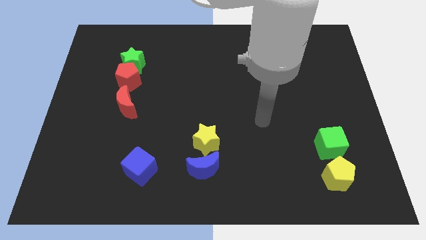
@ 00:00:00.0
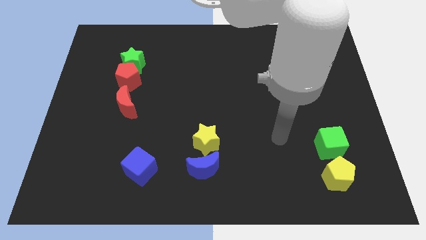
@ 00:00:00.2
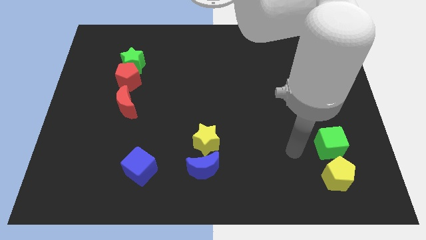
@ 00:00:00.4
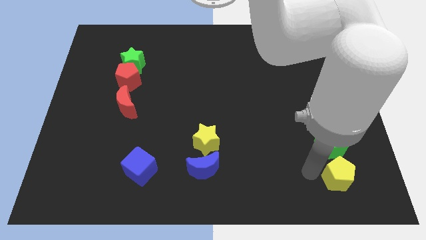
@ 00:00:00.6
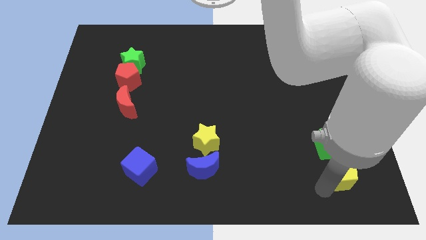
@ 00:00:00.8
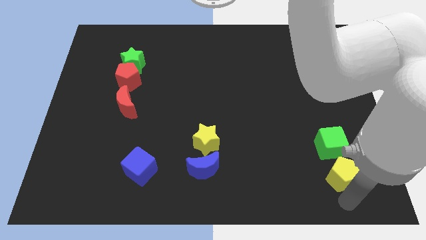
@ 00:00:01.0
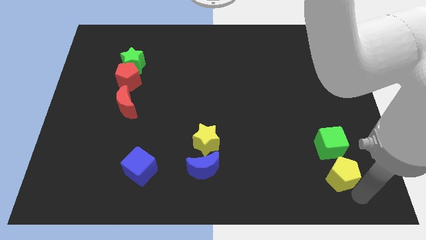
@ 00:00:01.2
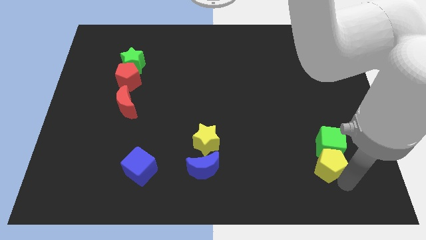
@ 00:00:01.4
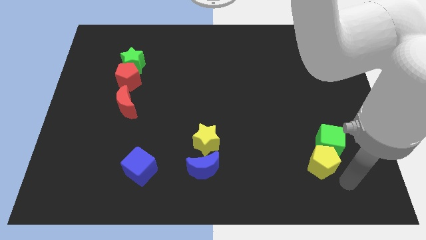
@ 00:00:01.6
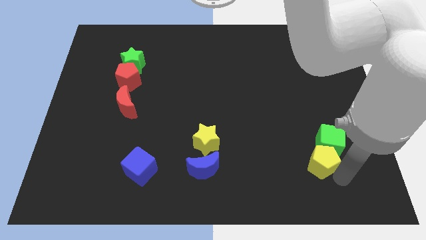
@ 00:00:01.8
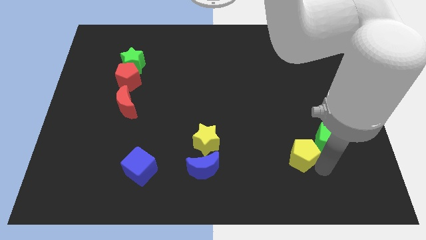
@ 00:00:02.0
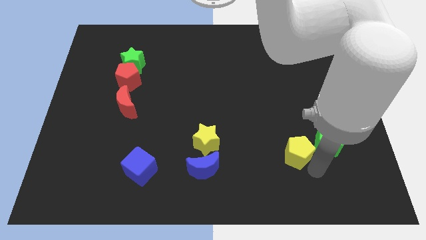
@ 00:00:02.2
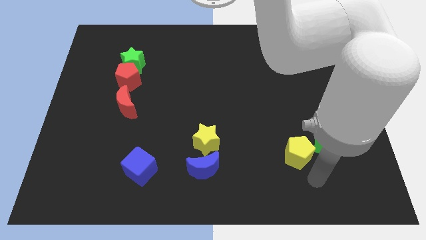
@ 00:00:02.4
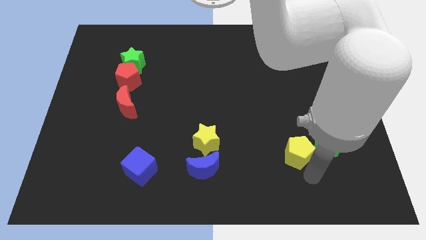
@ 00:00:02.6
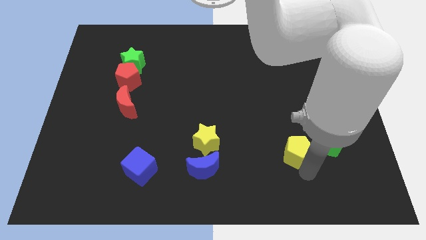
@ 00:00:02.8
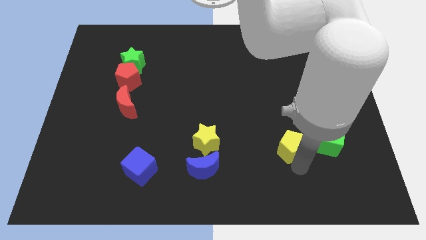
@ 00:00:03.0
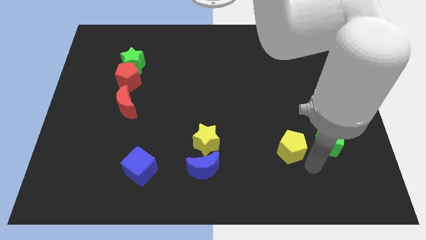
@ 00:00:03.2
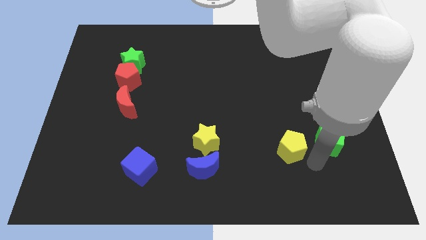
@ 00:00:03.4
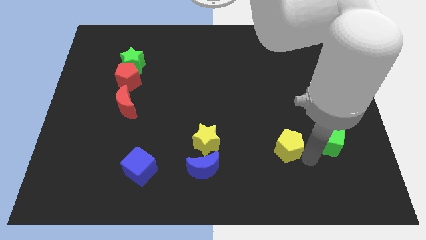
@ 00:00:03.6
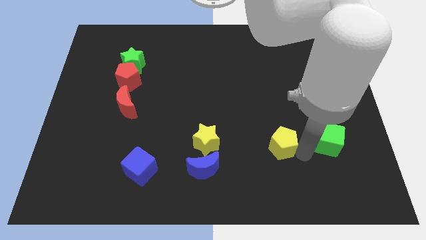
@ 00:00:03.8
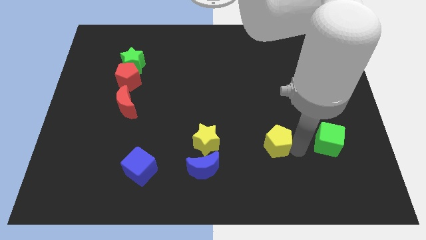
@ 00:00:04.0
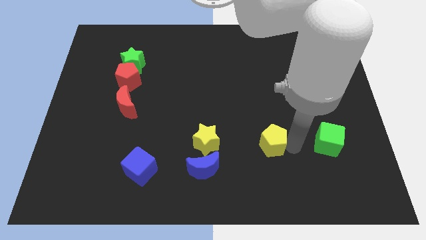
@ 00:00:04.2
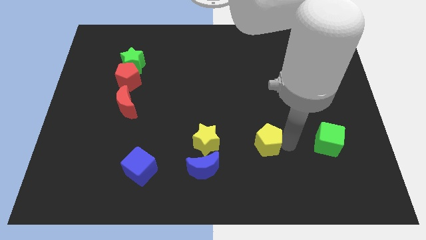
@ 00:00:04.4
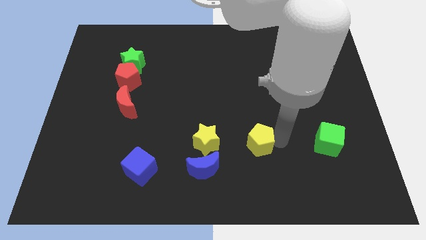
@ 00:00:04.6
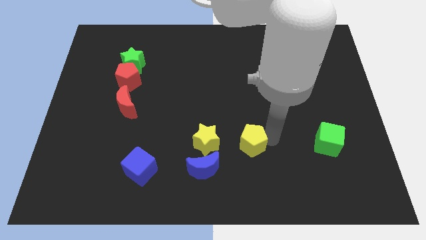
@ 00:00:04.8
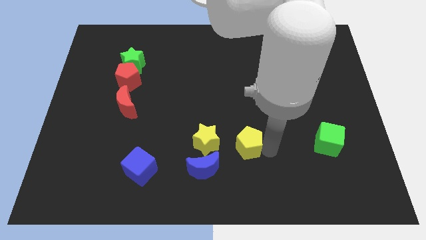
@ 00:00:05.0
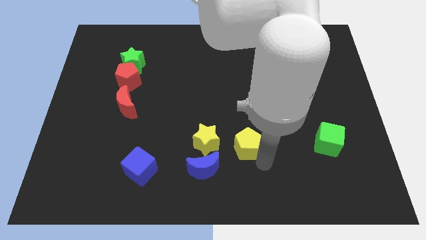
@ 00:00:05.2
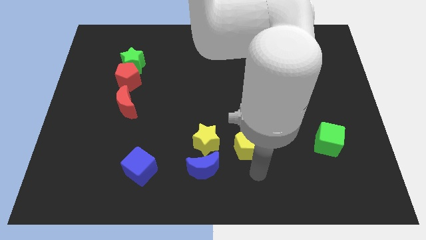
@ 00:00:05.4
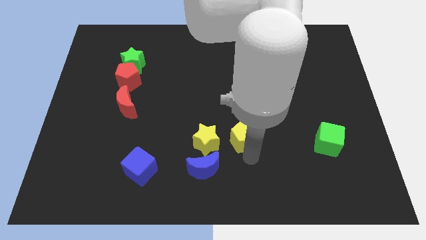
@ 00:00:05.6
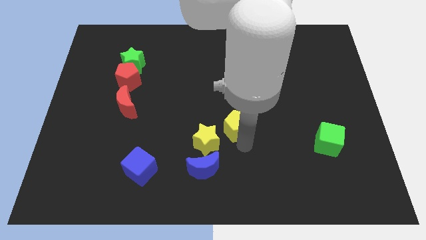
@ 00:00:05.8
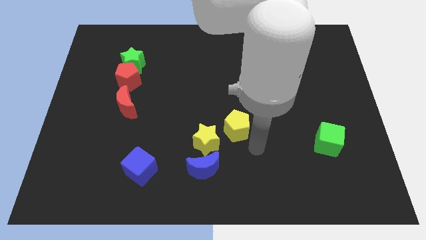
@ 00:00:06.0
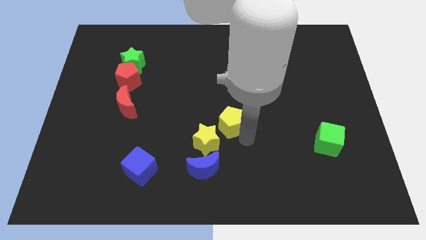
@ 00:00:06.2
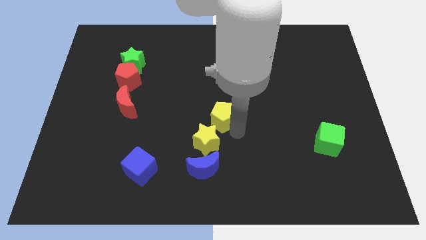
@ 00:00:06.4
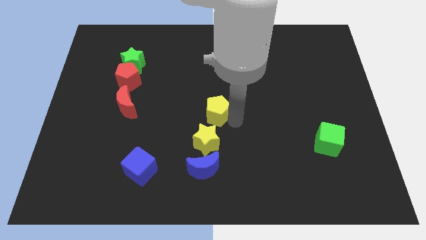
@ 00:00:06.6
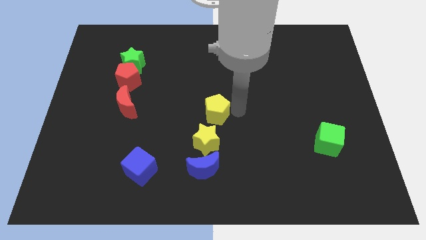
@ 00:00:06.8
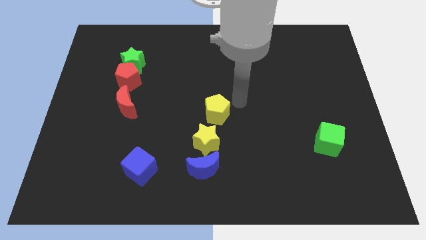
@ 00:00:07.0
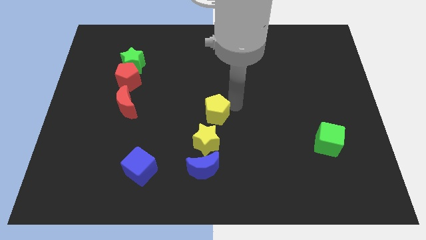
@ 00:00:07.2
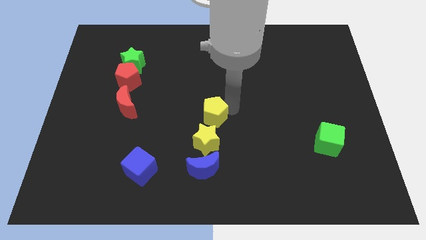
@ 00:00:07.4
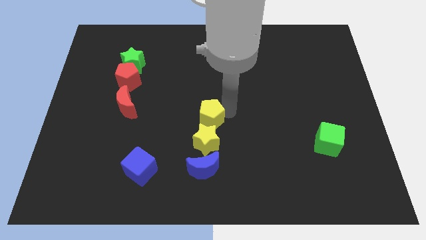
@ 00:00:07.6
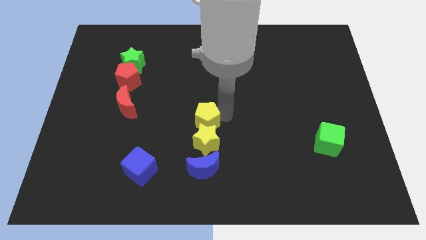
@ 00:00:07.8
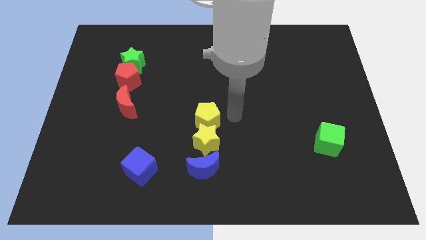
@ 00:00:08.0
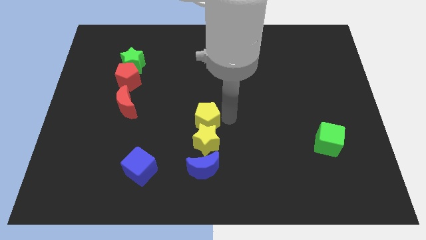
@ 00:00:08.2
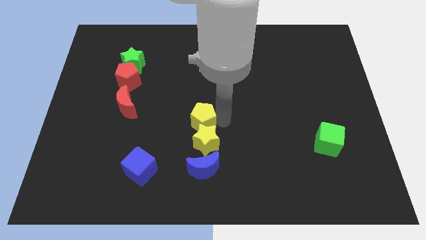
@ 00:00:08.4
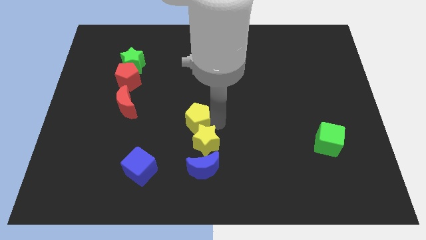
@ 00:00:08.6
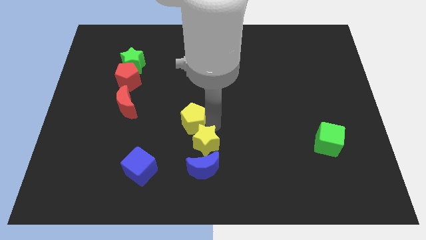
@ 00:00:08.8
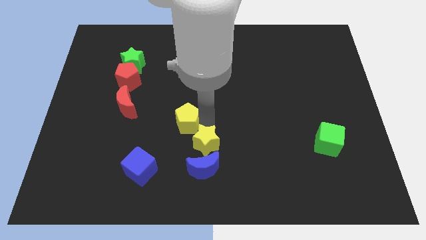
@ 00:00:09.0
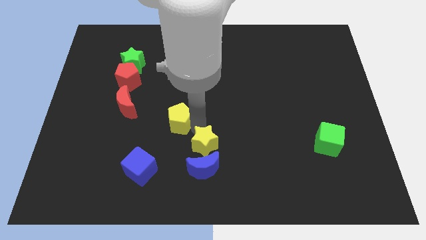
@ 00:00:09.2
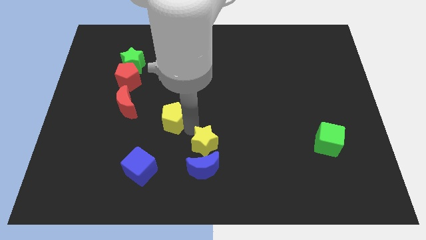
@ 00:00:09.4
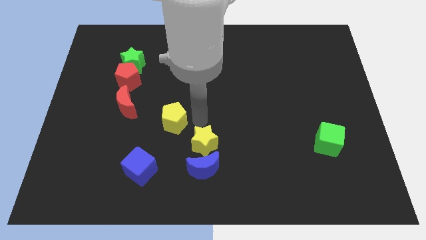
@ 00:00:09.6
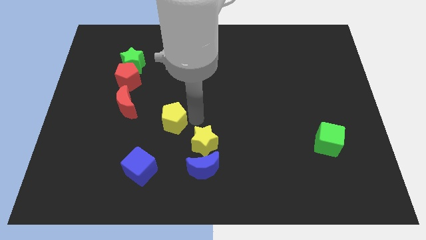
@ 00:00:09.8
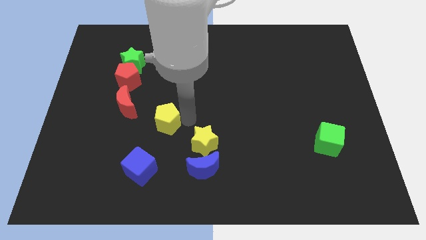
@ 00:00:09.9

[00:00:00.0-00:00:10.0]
put the yellow pentagon to the bottom right side of the red moon

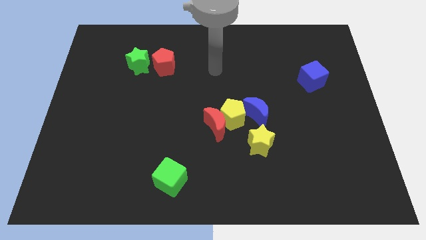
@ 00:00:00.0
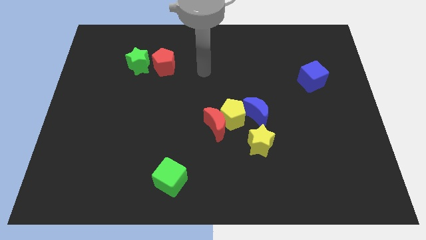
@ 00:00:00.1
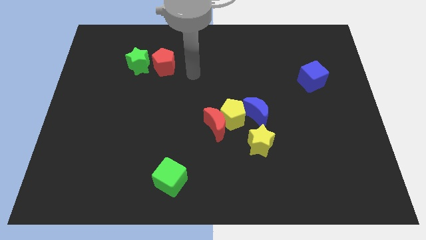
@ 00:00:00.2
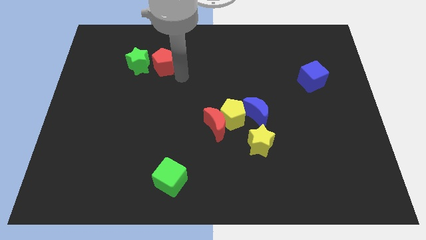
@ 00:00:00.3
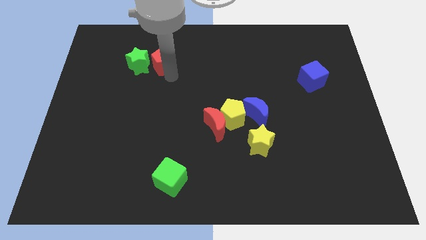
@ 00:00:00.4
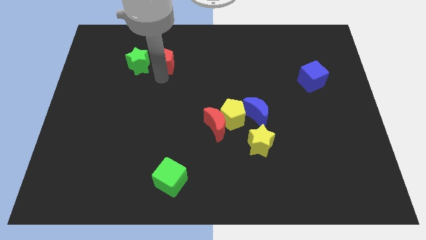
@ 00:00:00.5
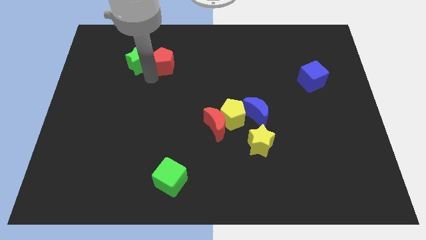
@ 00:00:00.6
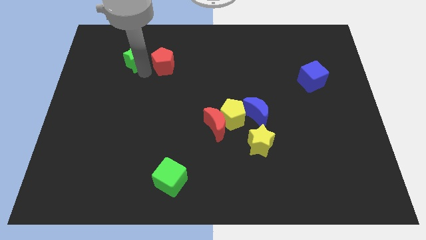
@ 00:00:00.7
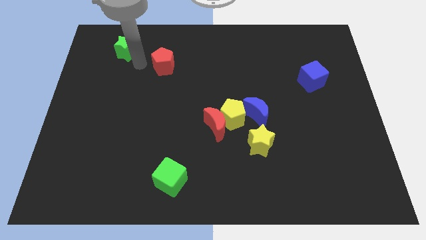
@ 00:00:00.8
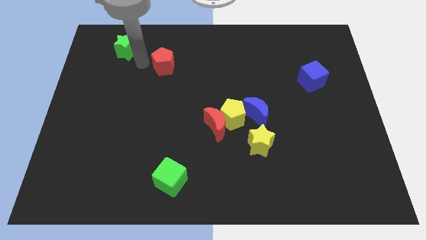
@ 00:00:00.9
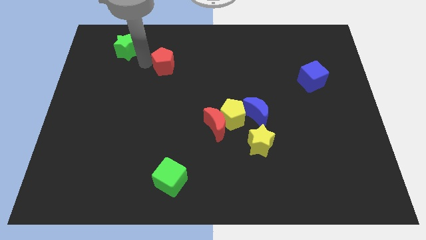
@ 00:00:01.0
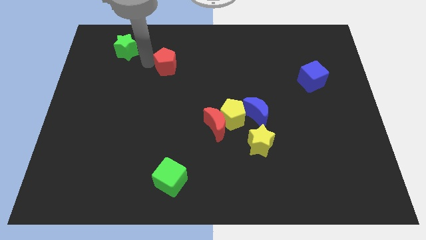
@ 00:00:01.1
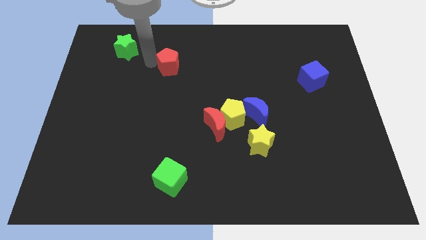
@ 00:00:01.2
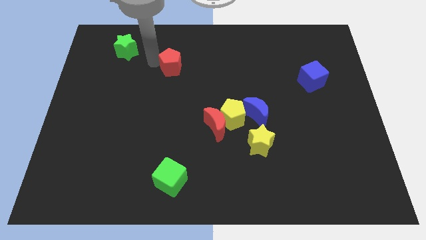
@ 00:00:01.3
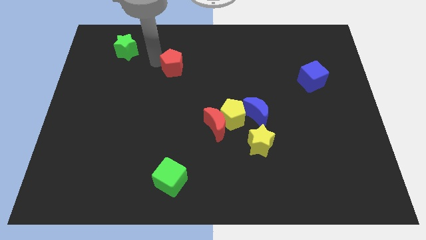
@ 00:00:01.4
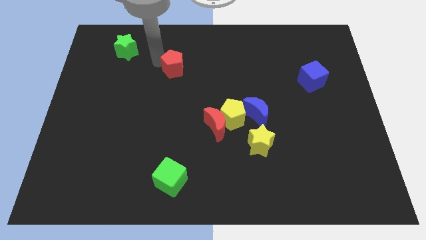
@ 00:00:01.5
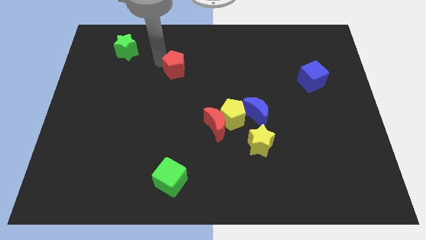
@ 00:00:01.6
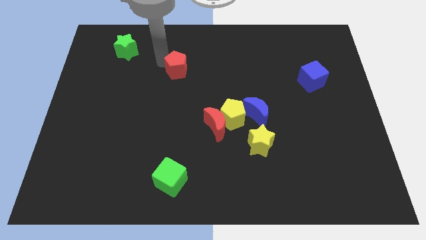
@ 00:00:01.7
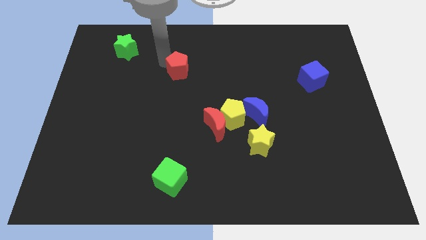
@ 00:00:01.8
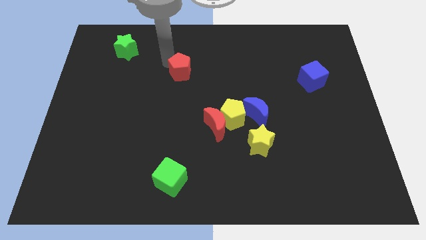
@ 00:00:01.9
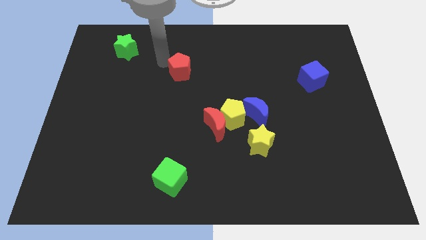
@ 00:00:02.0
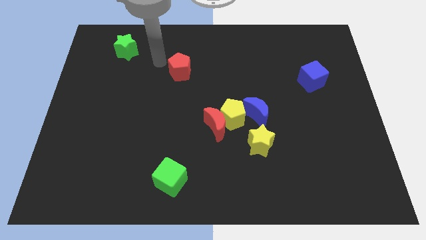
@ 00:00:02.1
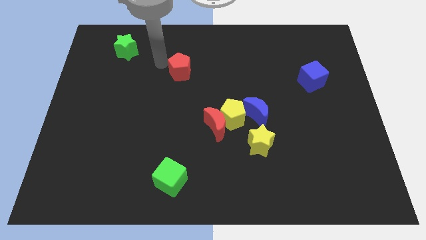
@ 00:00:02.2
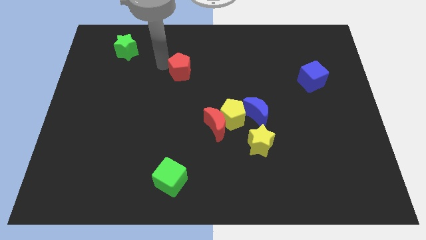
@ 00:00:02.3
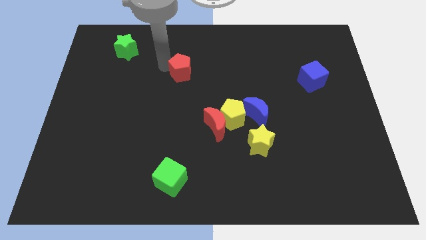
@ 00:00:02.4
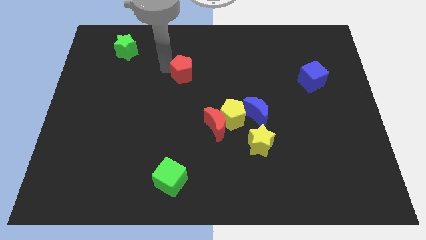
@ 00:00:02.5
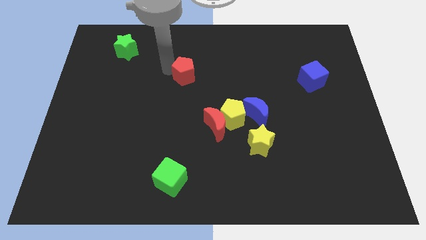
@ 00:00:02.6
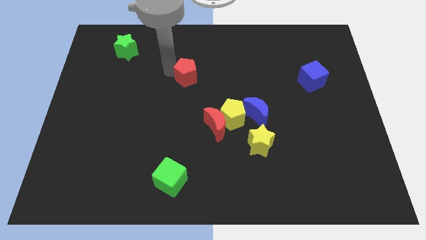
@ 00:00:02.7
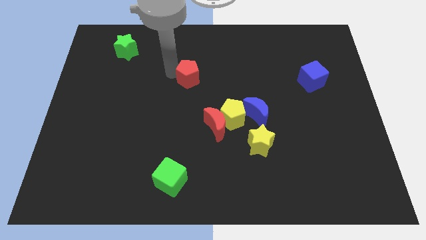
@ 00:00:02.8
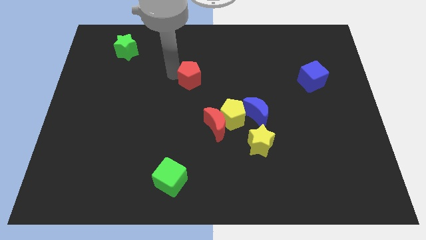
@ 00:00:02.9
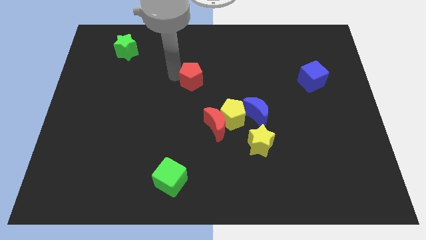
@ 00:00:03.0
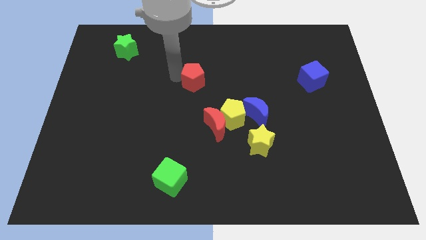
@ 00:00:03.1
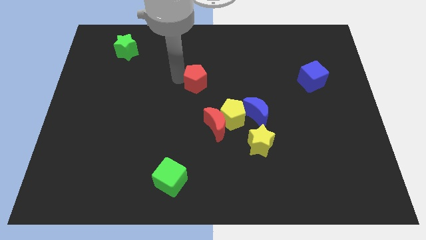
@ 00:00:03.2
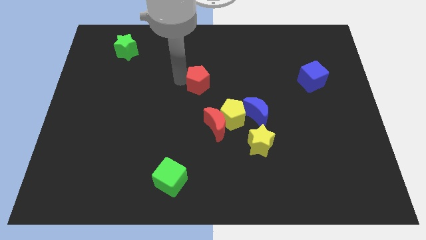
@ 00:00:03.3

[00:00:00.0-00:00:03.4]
slide the red pentagon above the red moon
